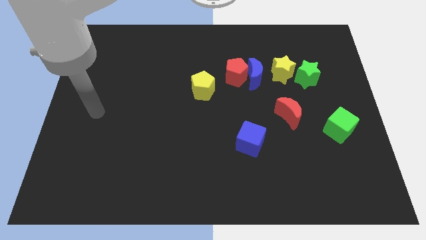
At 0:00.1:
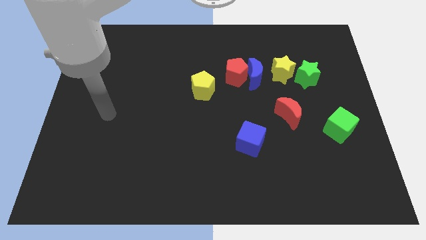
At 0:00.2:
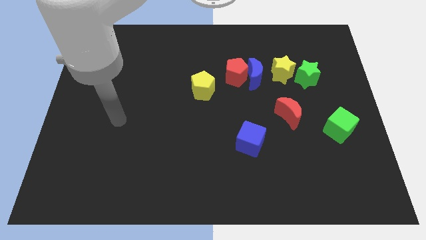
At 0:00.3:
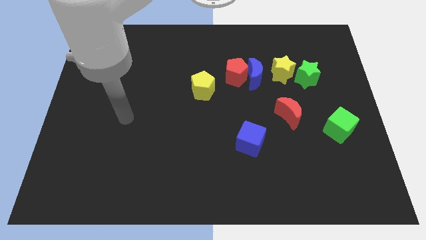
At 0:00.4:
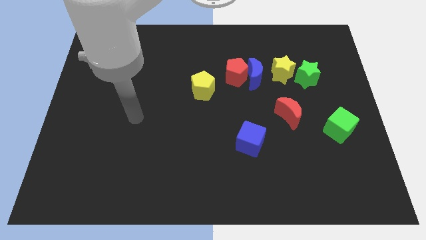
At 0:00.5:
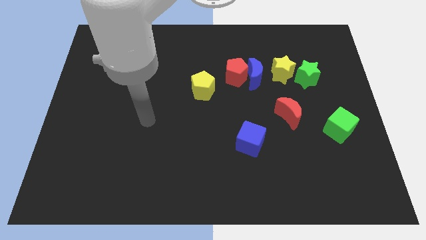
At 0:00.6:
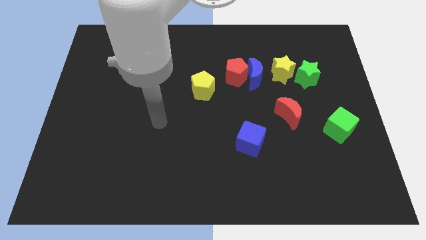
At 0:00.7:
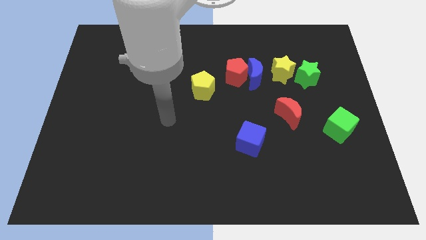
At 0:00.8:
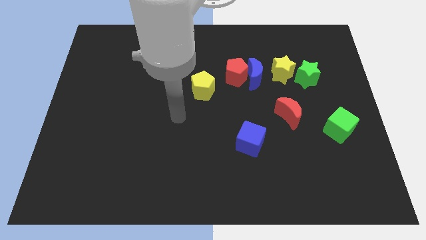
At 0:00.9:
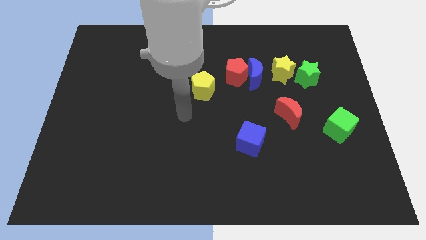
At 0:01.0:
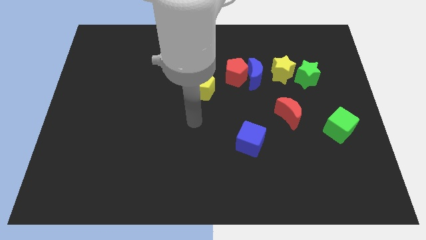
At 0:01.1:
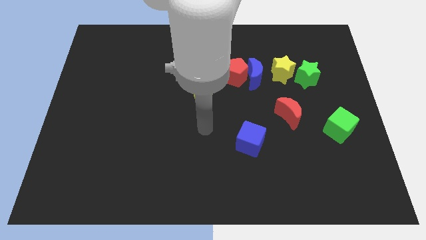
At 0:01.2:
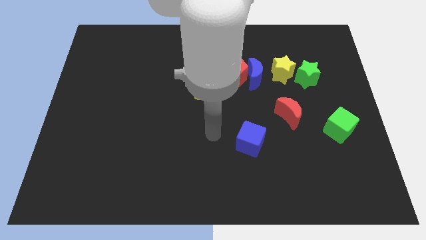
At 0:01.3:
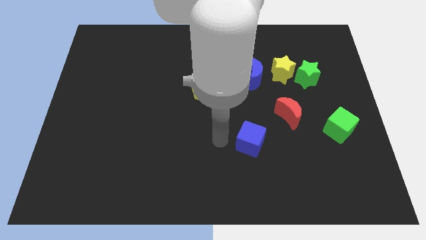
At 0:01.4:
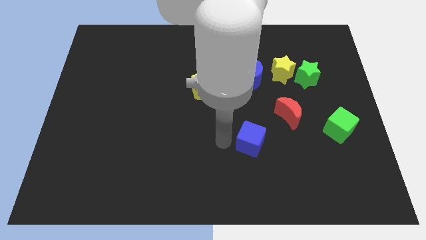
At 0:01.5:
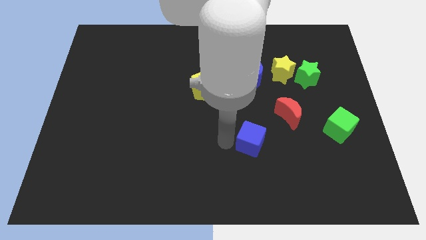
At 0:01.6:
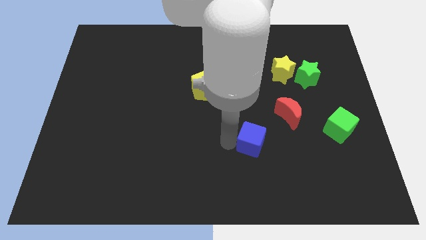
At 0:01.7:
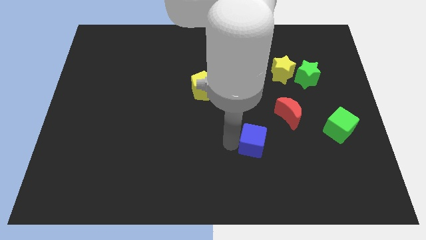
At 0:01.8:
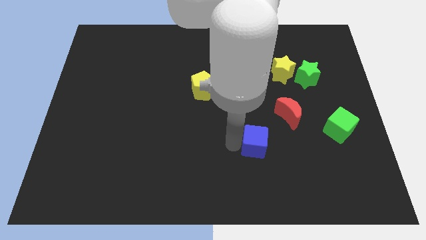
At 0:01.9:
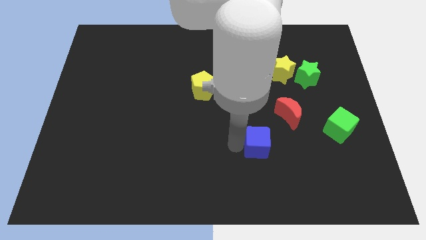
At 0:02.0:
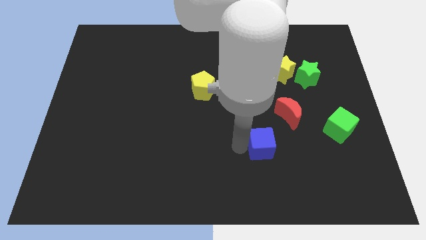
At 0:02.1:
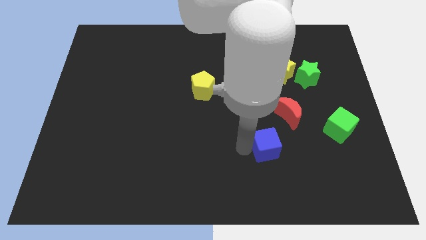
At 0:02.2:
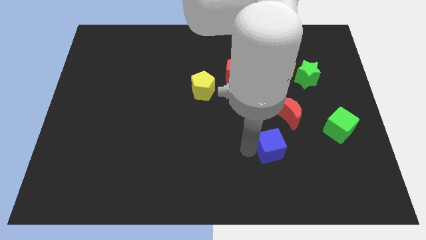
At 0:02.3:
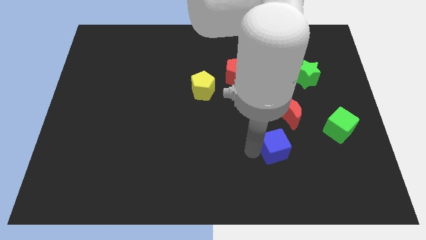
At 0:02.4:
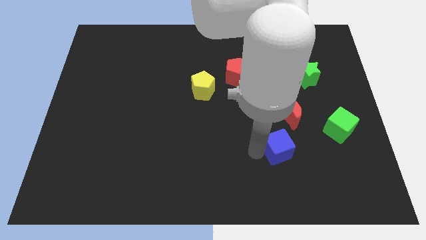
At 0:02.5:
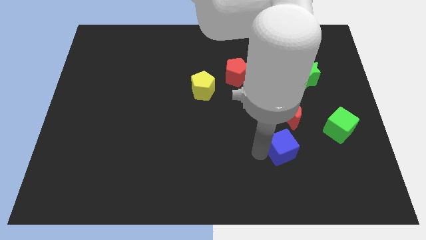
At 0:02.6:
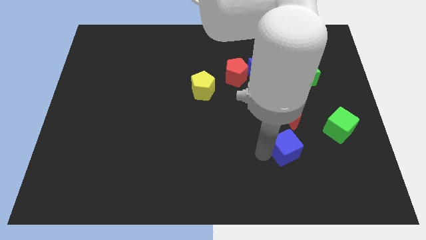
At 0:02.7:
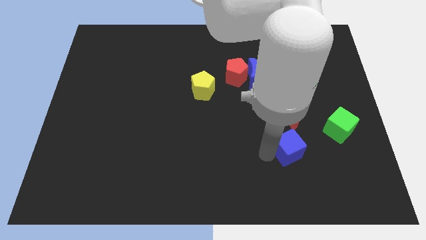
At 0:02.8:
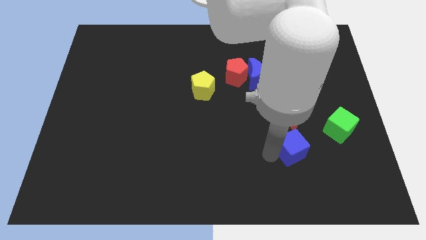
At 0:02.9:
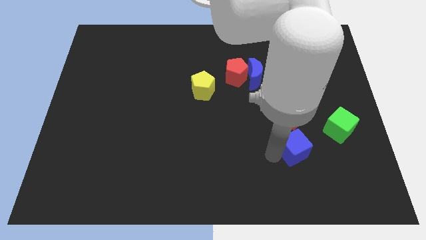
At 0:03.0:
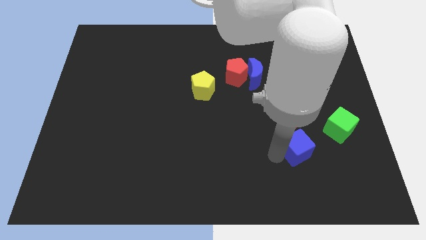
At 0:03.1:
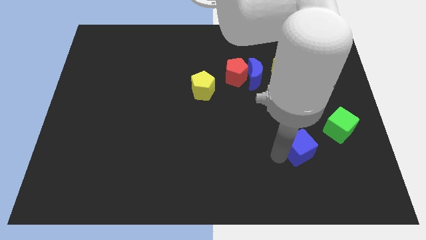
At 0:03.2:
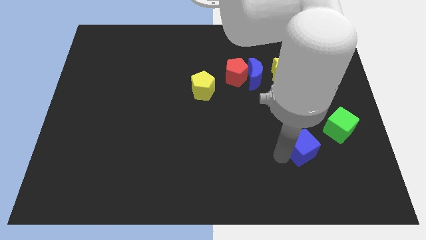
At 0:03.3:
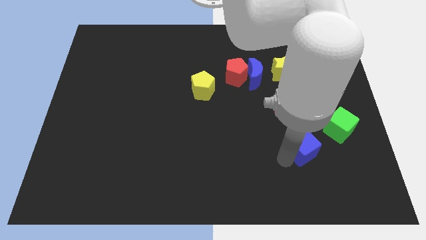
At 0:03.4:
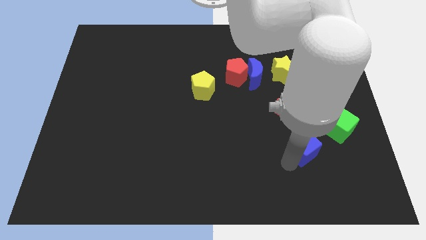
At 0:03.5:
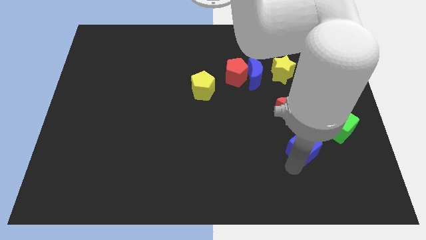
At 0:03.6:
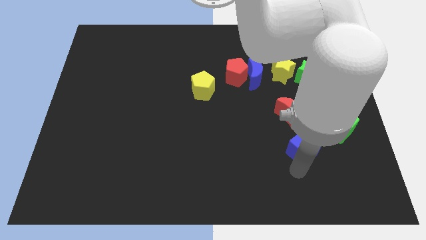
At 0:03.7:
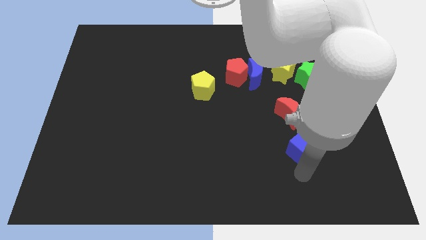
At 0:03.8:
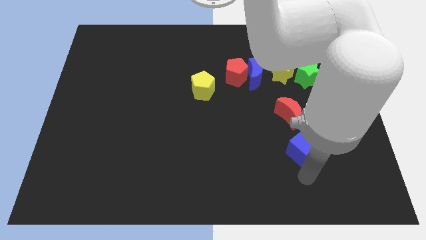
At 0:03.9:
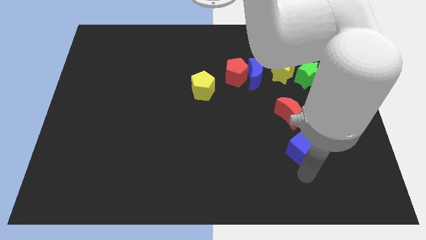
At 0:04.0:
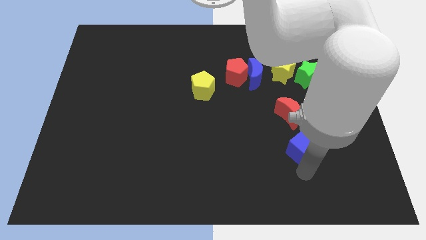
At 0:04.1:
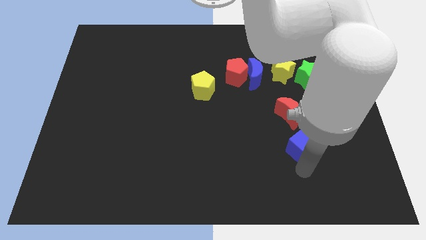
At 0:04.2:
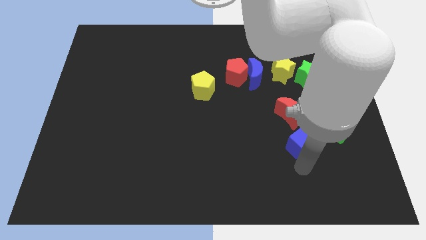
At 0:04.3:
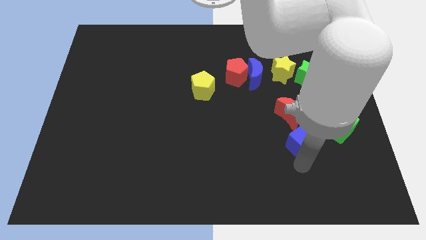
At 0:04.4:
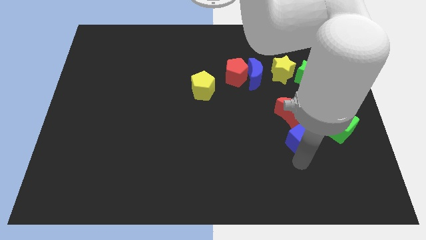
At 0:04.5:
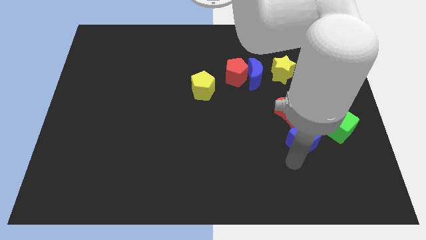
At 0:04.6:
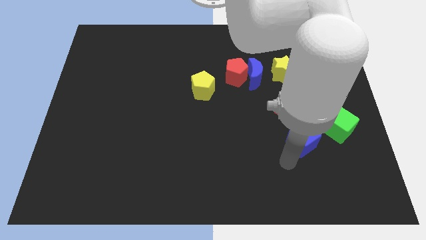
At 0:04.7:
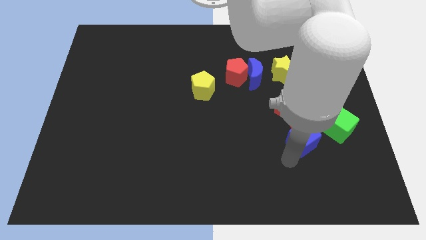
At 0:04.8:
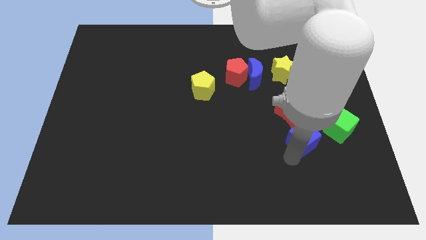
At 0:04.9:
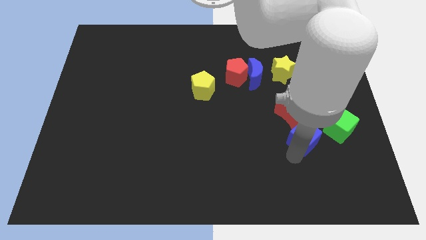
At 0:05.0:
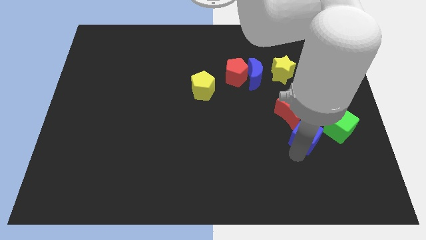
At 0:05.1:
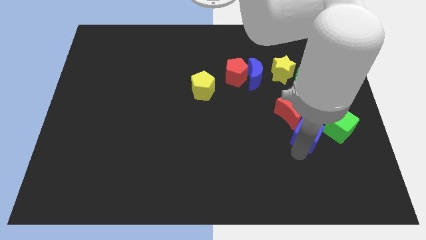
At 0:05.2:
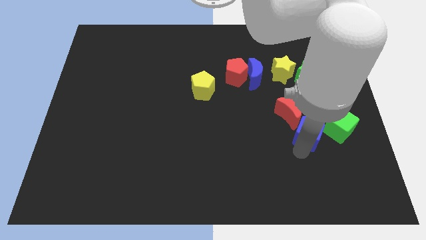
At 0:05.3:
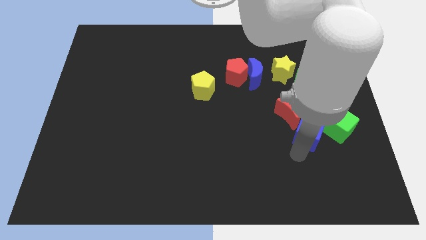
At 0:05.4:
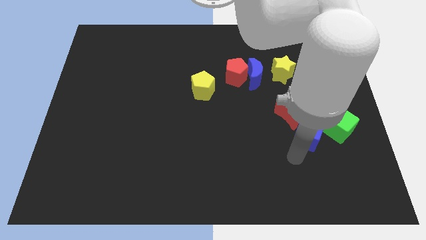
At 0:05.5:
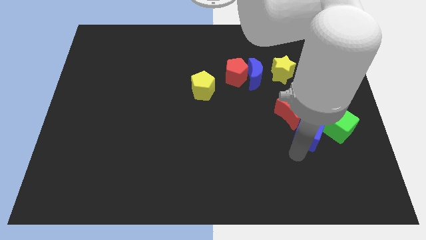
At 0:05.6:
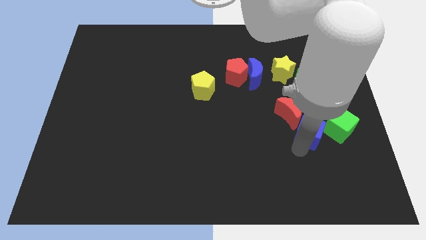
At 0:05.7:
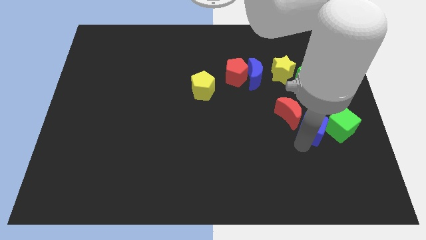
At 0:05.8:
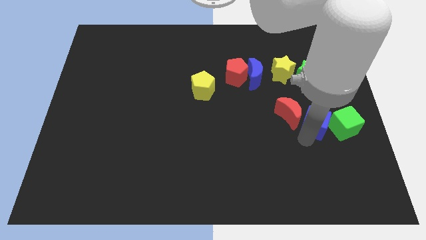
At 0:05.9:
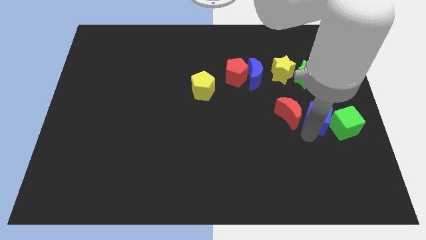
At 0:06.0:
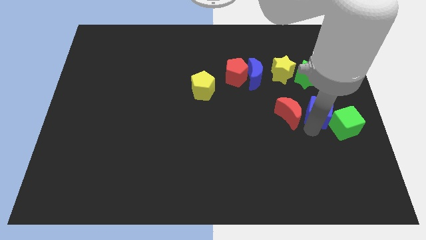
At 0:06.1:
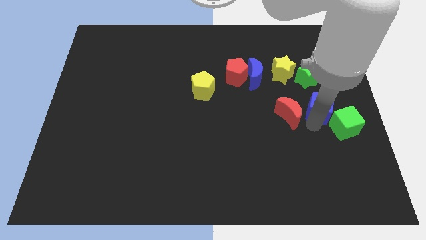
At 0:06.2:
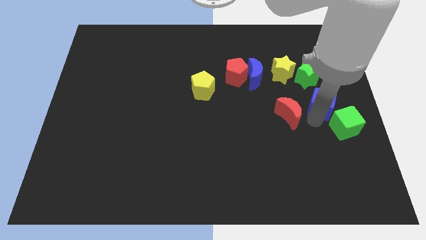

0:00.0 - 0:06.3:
slide the blue cube above the green cube

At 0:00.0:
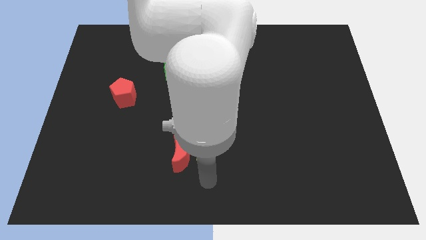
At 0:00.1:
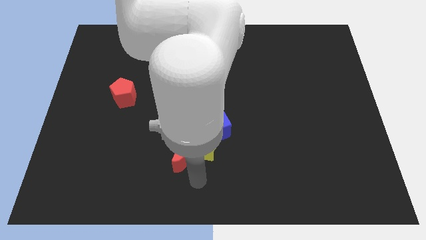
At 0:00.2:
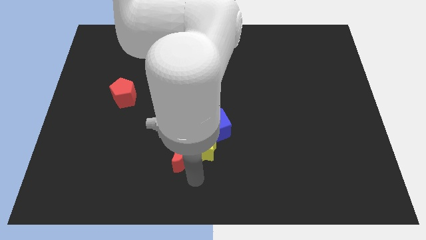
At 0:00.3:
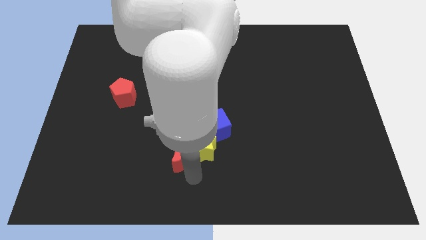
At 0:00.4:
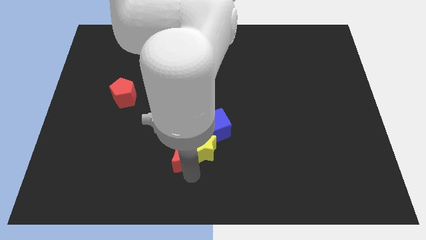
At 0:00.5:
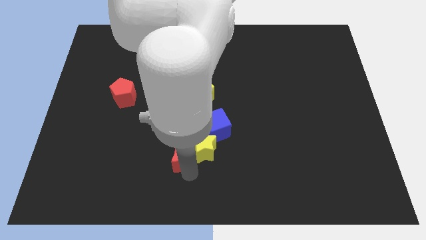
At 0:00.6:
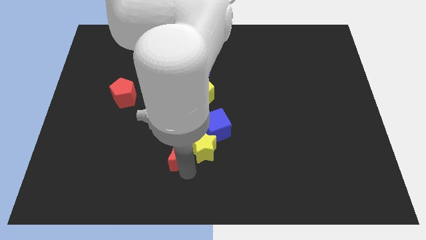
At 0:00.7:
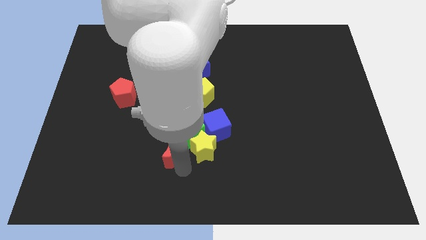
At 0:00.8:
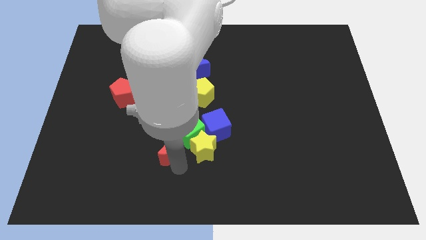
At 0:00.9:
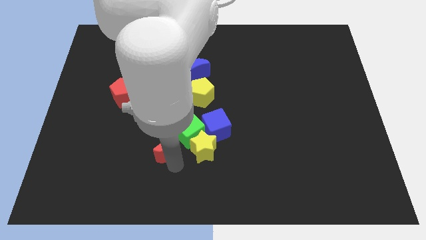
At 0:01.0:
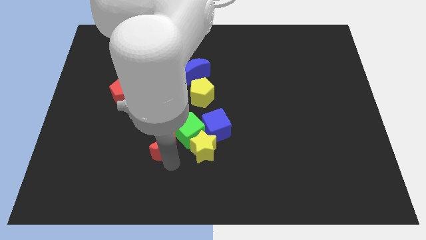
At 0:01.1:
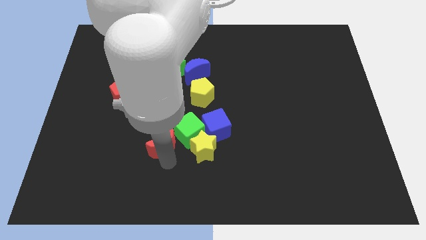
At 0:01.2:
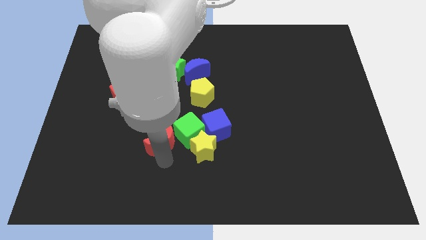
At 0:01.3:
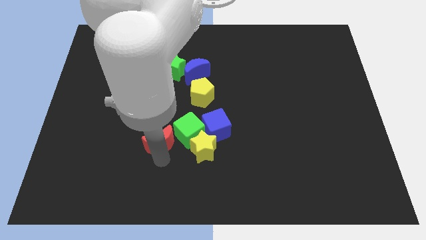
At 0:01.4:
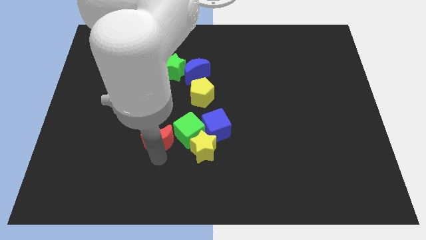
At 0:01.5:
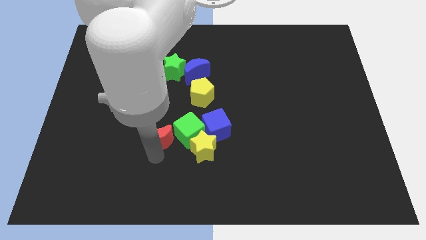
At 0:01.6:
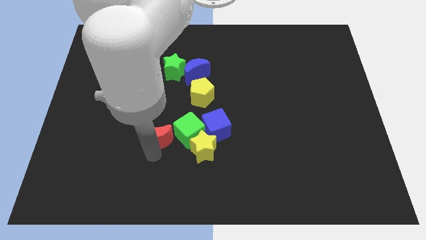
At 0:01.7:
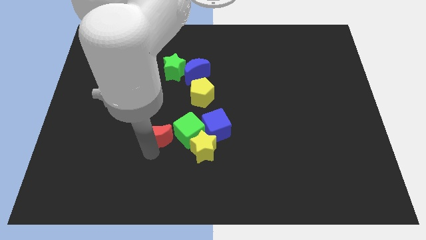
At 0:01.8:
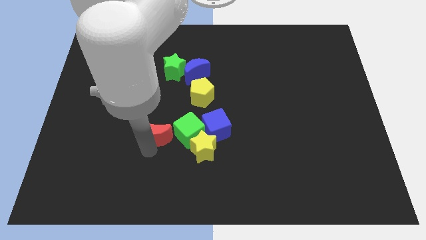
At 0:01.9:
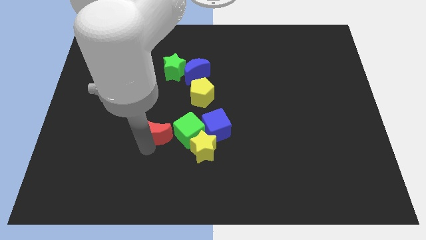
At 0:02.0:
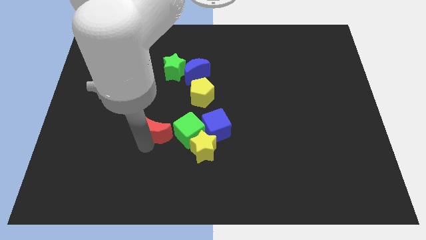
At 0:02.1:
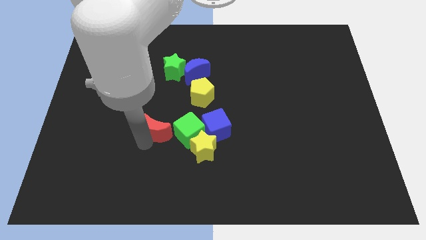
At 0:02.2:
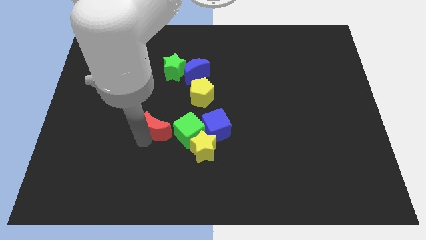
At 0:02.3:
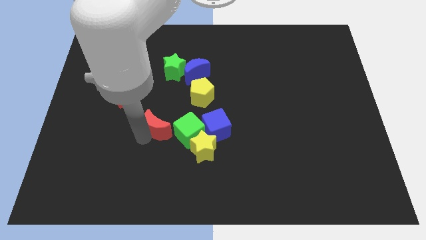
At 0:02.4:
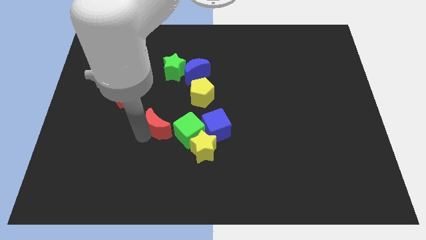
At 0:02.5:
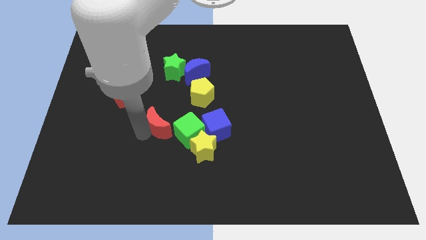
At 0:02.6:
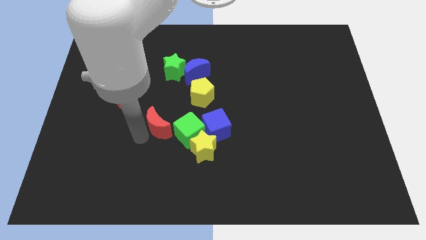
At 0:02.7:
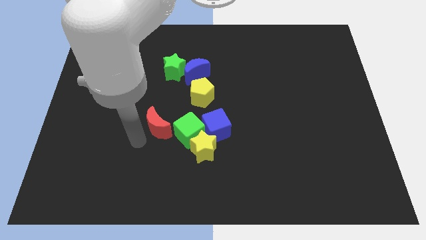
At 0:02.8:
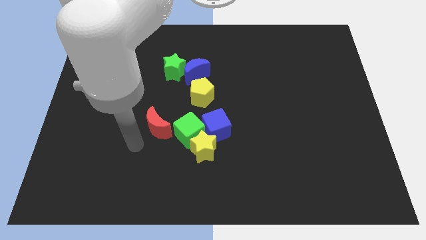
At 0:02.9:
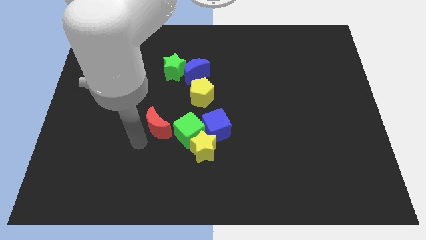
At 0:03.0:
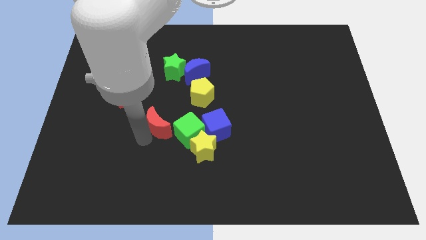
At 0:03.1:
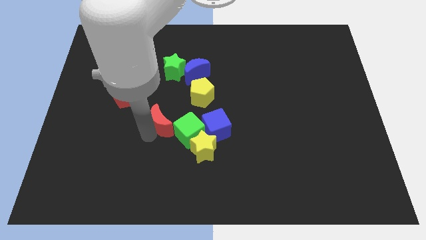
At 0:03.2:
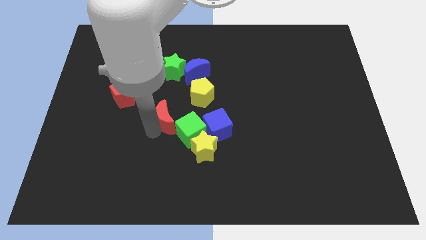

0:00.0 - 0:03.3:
put the red moon to the bottom of the green star
